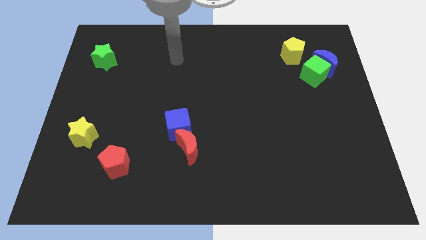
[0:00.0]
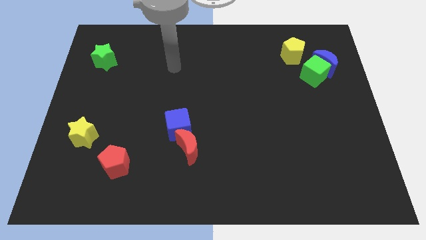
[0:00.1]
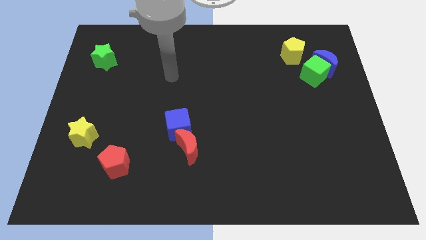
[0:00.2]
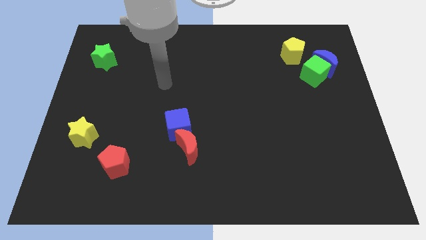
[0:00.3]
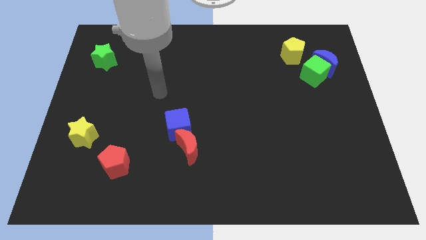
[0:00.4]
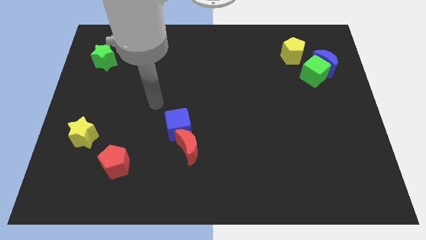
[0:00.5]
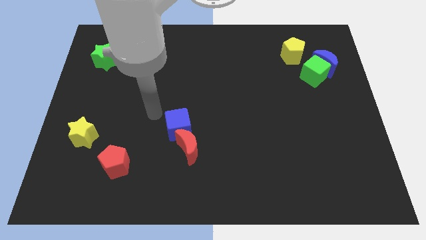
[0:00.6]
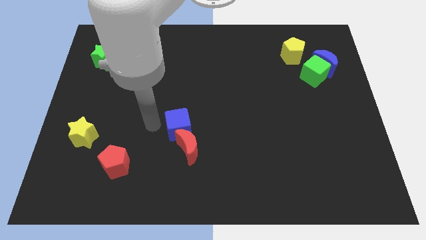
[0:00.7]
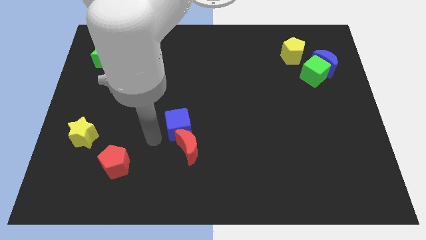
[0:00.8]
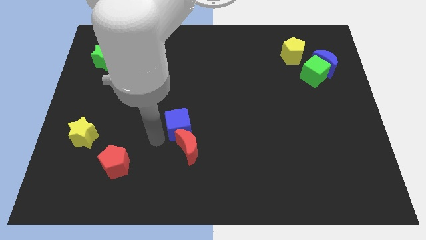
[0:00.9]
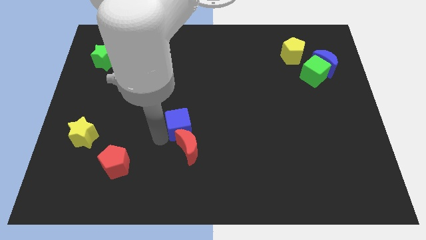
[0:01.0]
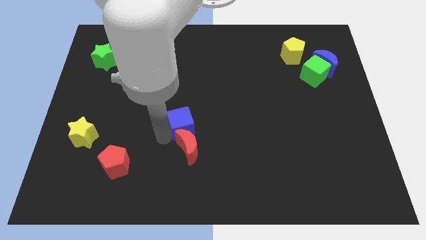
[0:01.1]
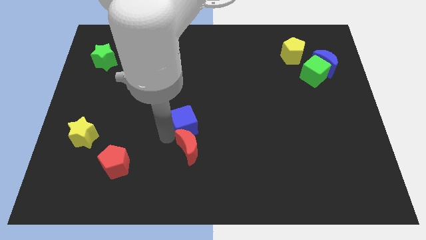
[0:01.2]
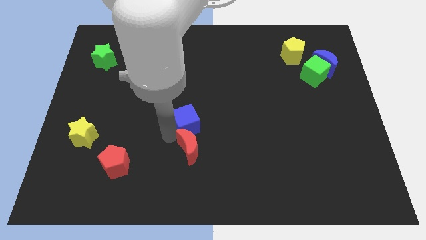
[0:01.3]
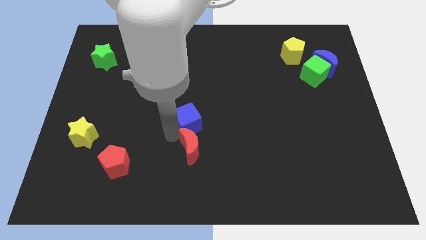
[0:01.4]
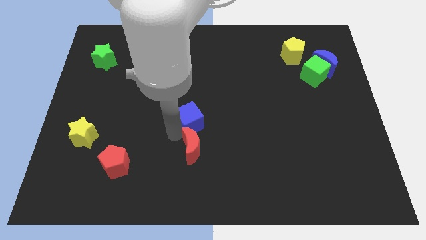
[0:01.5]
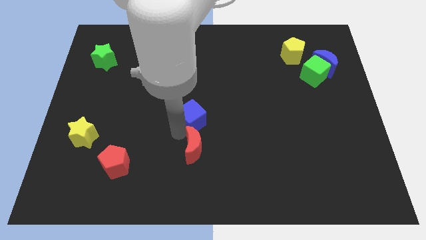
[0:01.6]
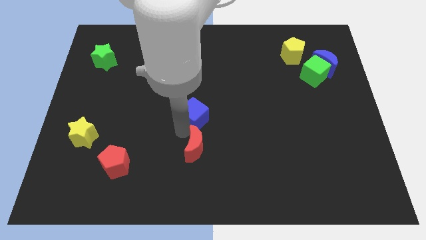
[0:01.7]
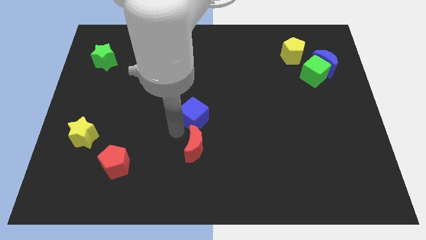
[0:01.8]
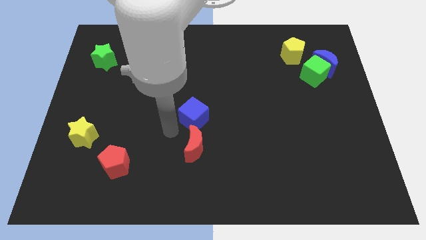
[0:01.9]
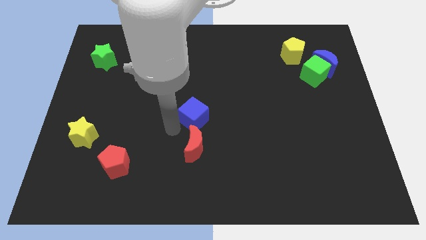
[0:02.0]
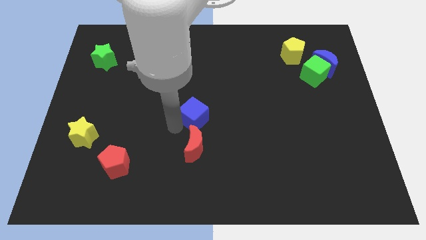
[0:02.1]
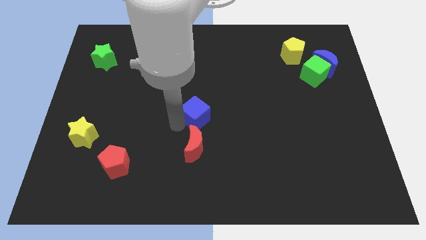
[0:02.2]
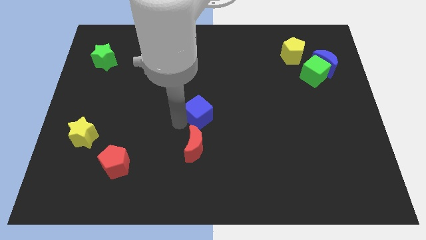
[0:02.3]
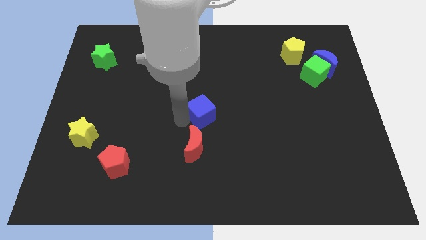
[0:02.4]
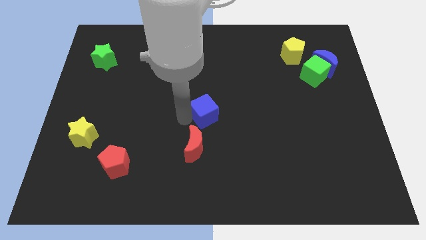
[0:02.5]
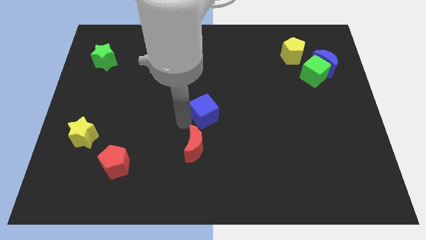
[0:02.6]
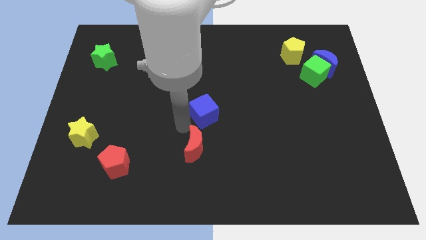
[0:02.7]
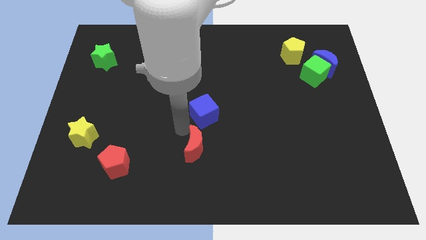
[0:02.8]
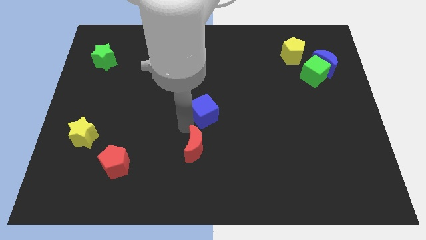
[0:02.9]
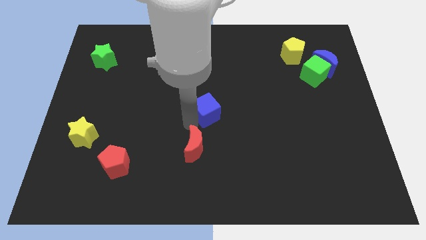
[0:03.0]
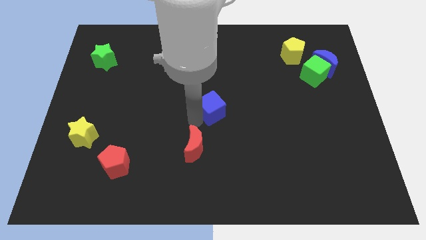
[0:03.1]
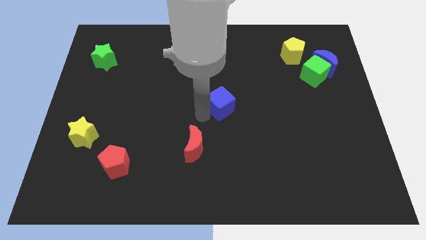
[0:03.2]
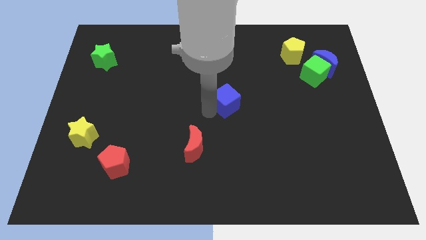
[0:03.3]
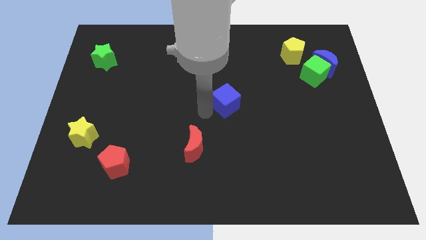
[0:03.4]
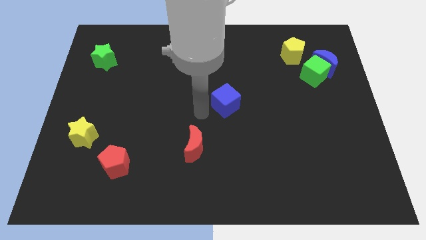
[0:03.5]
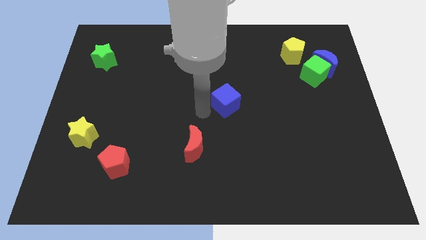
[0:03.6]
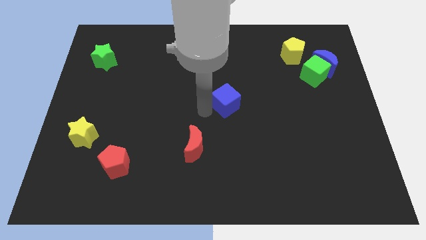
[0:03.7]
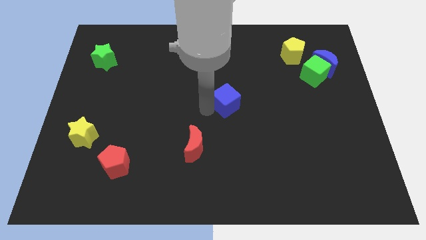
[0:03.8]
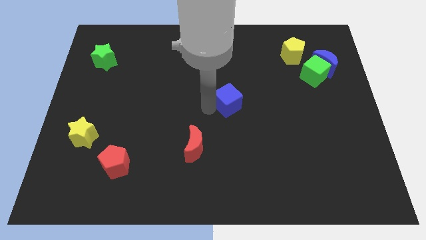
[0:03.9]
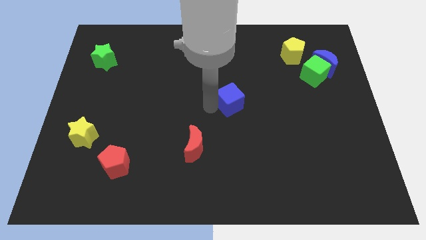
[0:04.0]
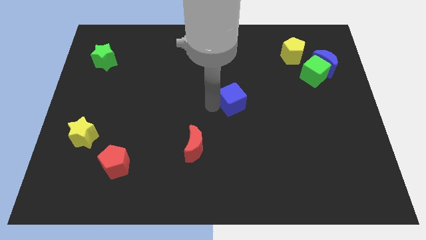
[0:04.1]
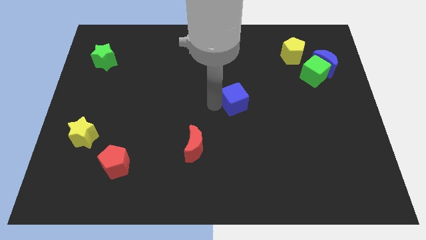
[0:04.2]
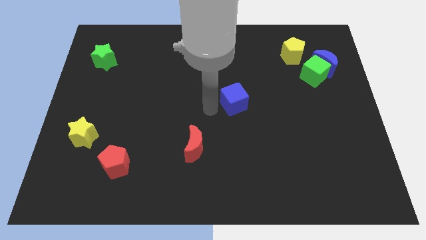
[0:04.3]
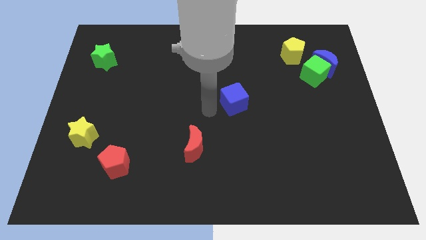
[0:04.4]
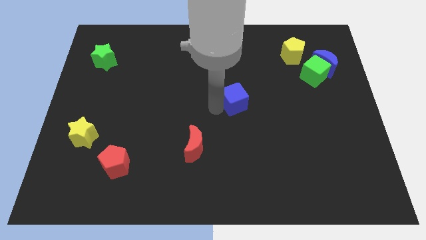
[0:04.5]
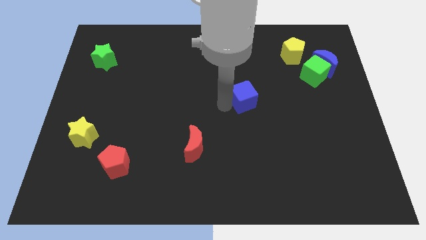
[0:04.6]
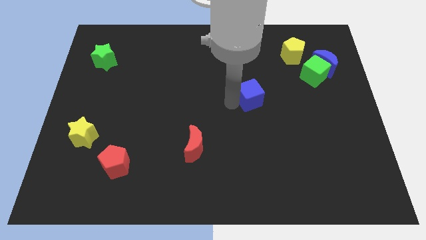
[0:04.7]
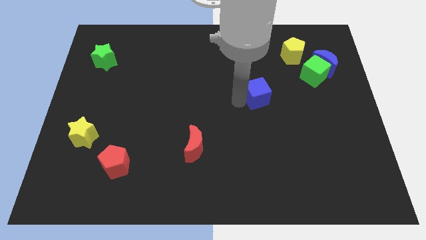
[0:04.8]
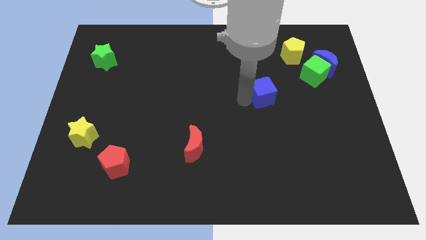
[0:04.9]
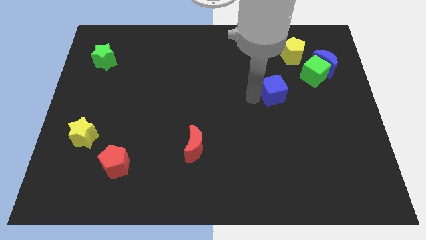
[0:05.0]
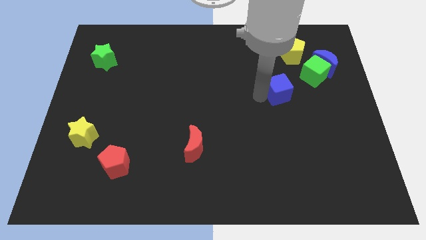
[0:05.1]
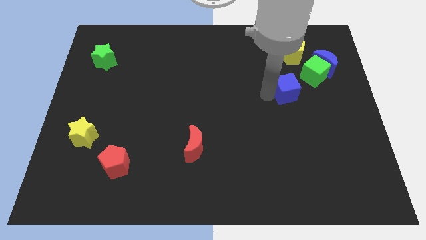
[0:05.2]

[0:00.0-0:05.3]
slide the blue cube to the bottom side of the yellow pentagon

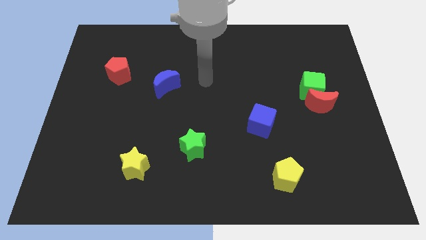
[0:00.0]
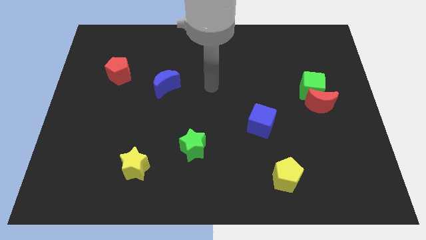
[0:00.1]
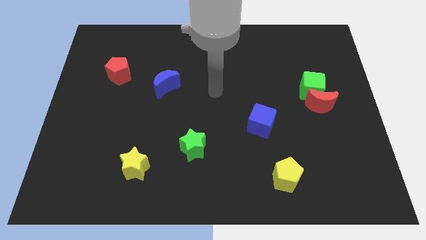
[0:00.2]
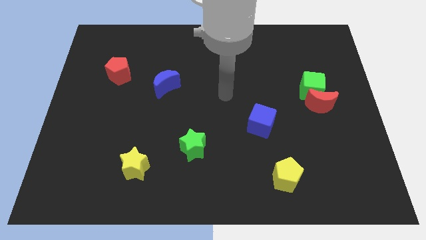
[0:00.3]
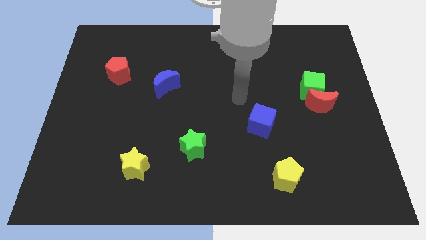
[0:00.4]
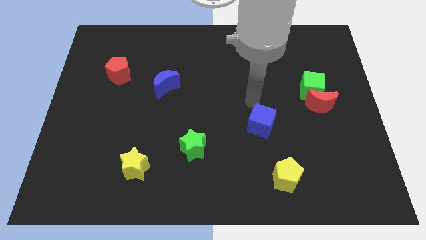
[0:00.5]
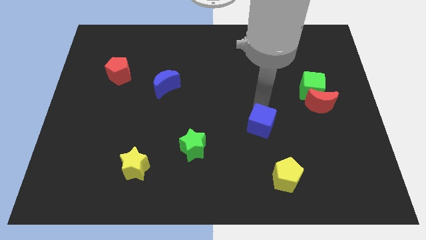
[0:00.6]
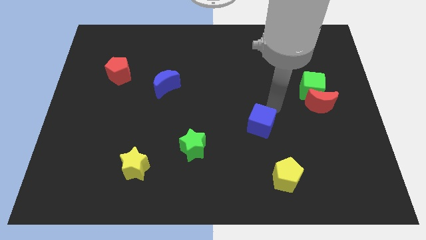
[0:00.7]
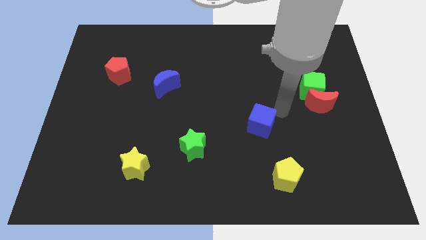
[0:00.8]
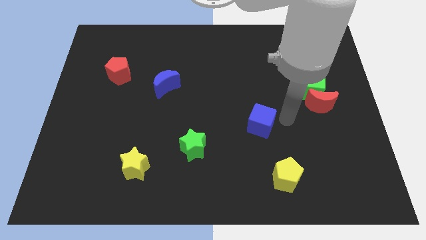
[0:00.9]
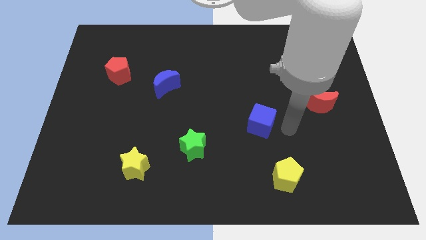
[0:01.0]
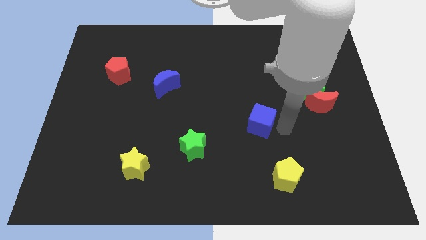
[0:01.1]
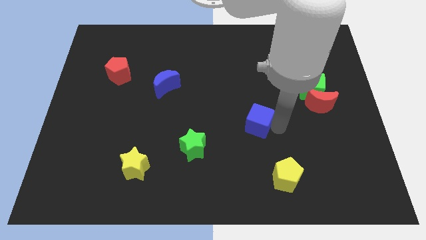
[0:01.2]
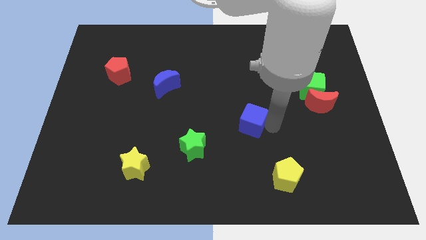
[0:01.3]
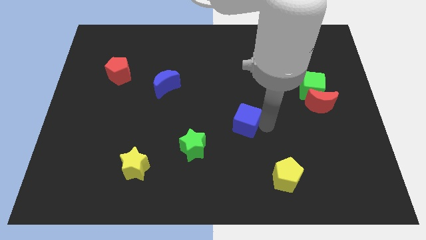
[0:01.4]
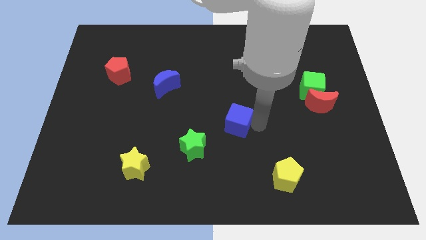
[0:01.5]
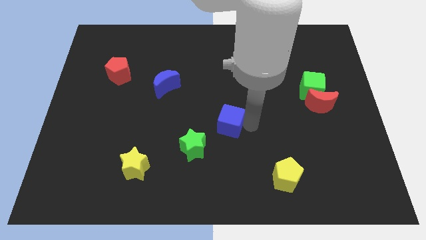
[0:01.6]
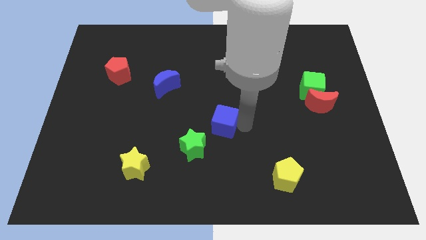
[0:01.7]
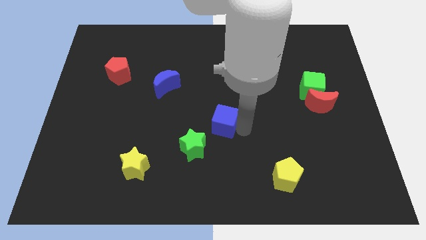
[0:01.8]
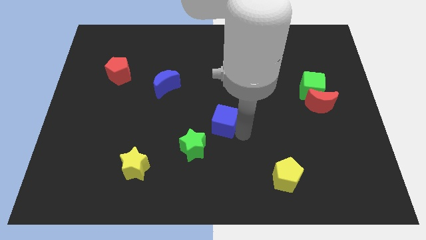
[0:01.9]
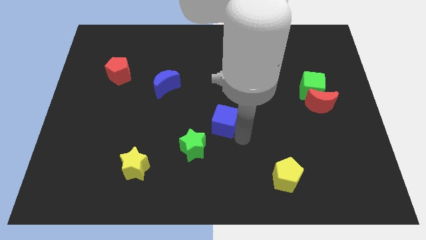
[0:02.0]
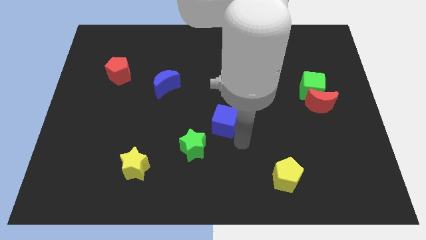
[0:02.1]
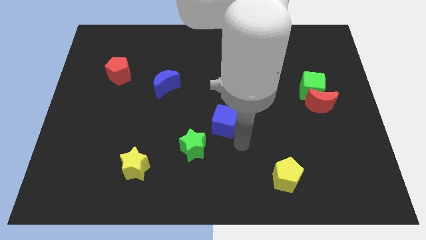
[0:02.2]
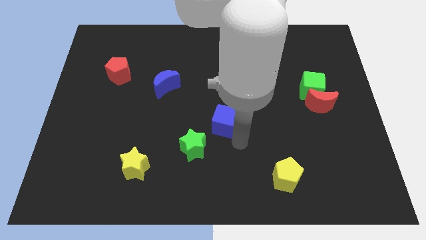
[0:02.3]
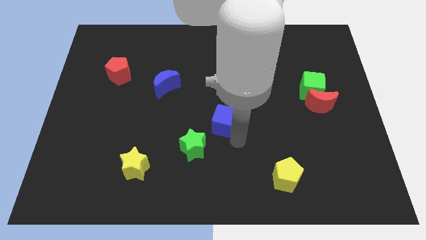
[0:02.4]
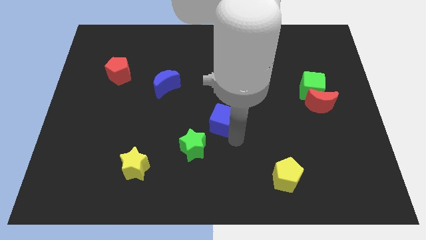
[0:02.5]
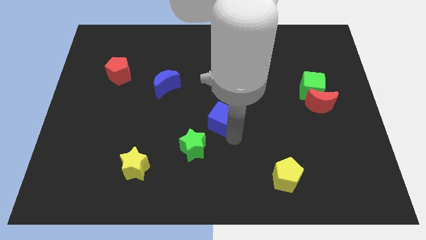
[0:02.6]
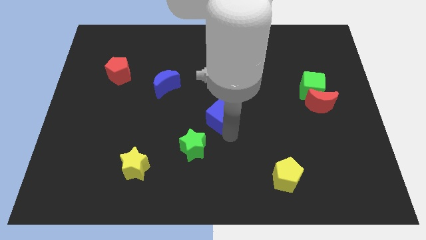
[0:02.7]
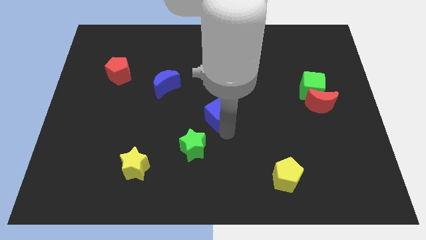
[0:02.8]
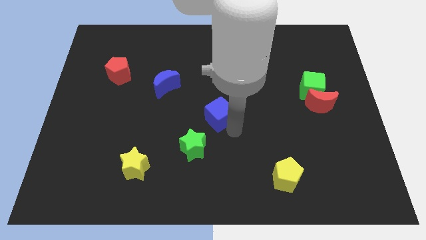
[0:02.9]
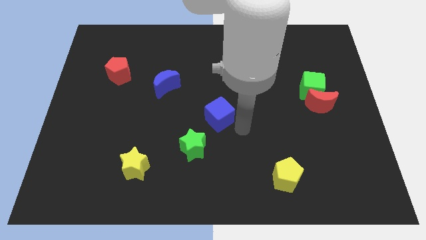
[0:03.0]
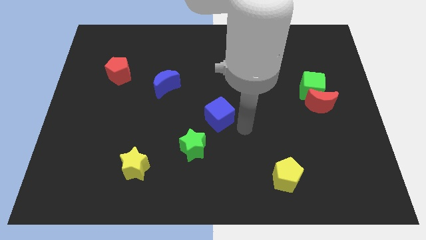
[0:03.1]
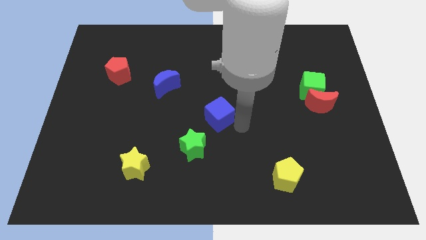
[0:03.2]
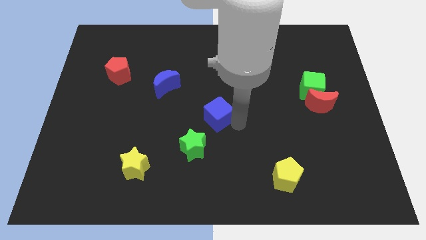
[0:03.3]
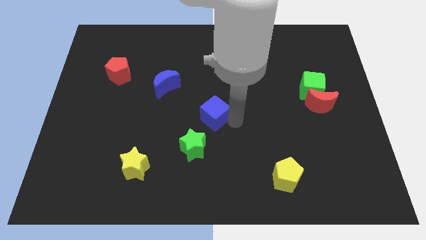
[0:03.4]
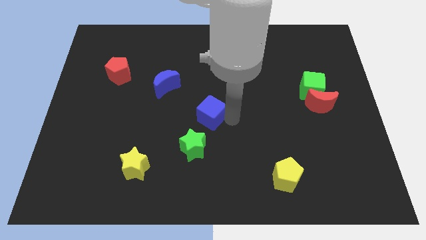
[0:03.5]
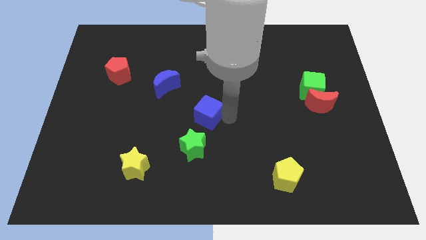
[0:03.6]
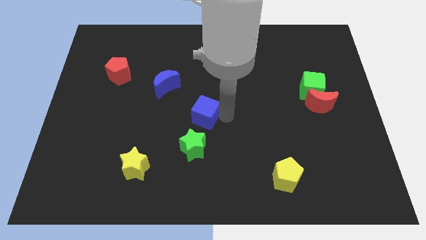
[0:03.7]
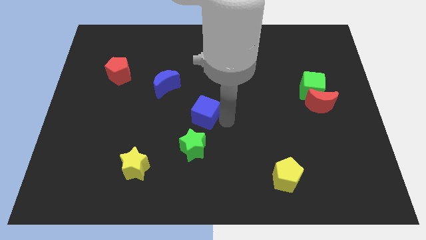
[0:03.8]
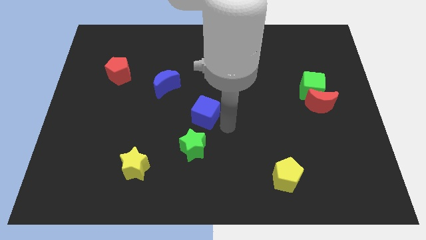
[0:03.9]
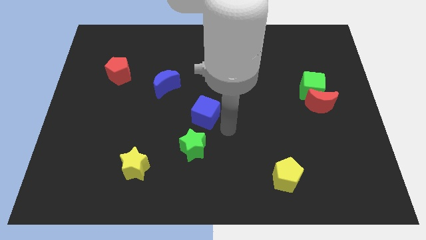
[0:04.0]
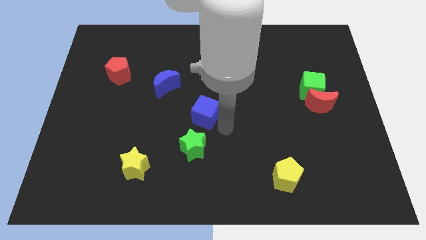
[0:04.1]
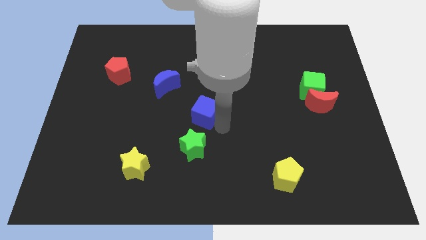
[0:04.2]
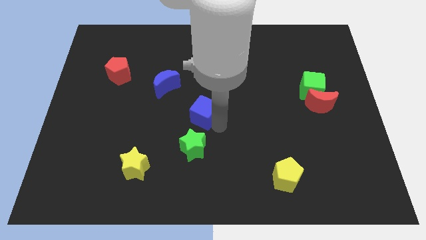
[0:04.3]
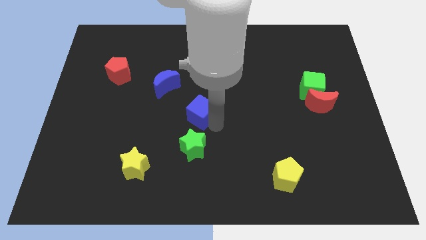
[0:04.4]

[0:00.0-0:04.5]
slide the blue cube to the bottom right side of the blue moon
